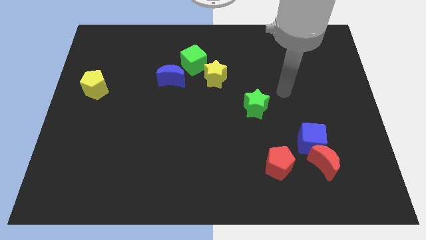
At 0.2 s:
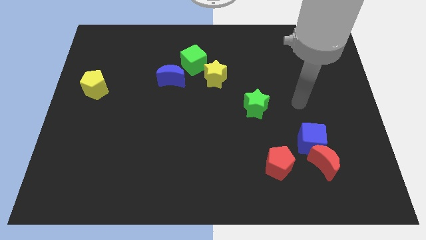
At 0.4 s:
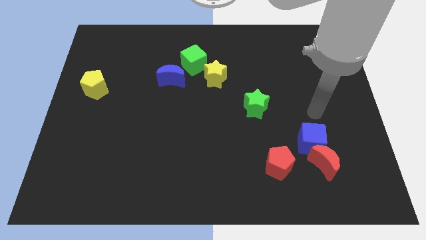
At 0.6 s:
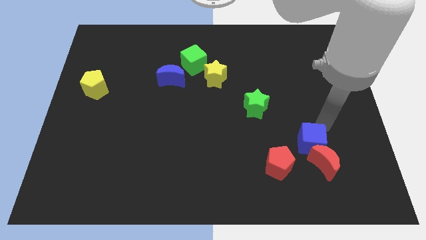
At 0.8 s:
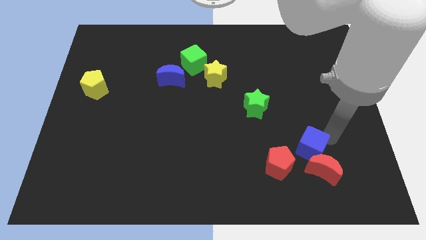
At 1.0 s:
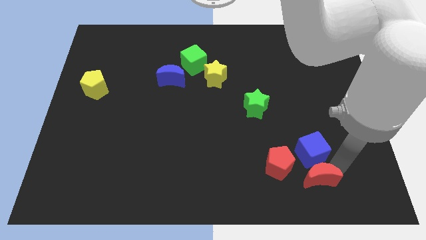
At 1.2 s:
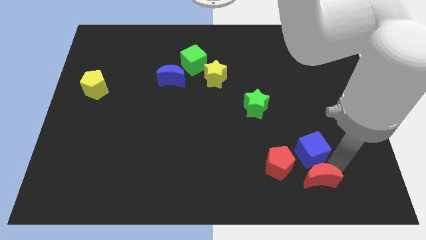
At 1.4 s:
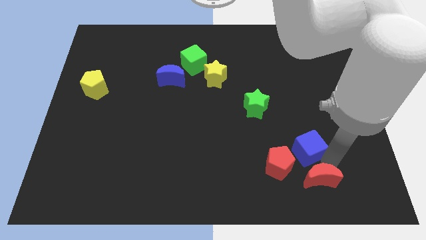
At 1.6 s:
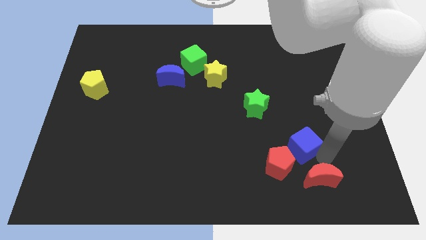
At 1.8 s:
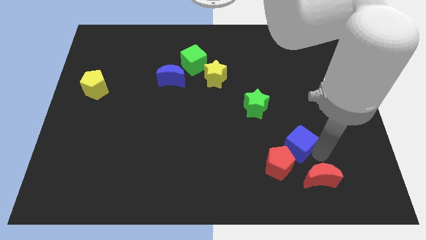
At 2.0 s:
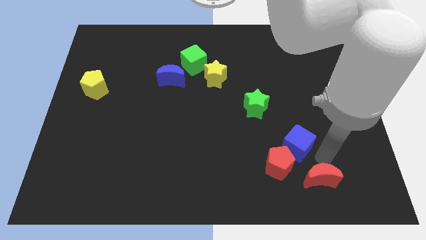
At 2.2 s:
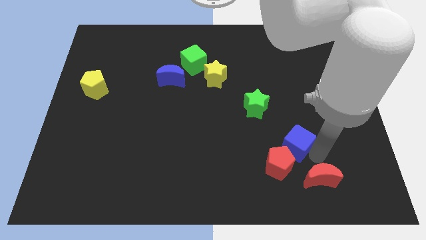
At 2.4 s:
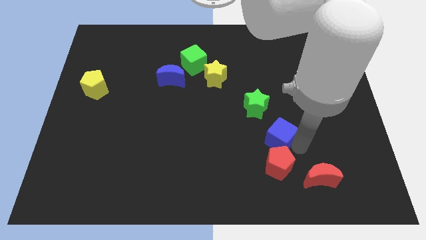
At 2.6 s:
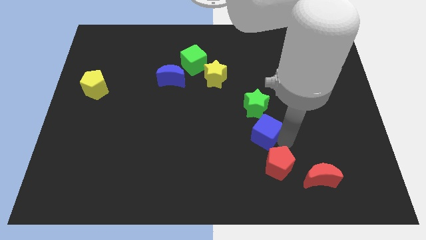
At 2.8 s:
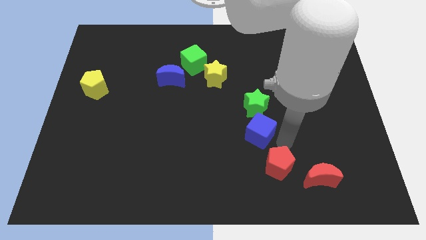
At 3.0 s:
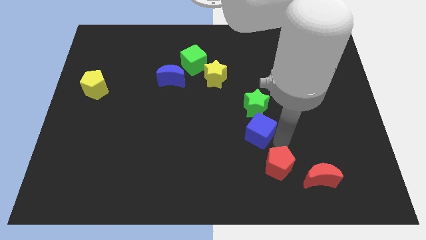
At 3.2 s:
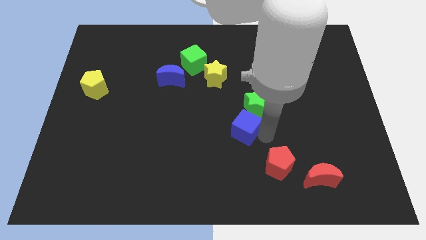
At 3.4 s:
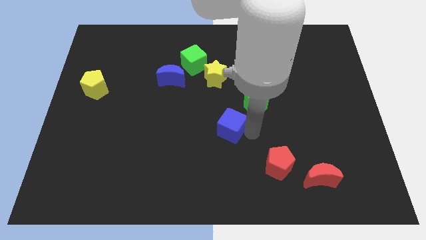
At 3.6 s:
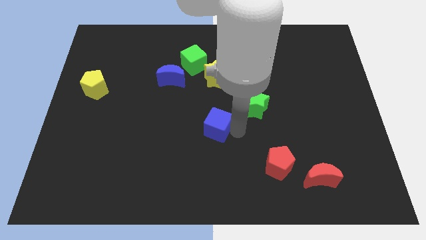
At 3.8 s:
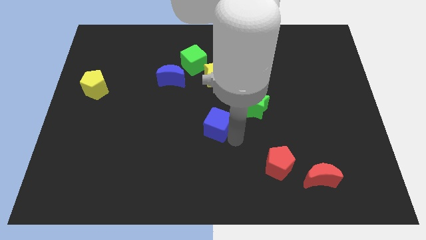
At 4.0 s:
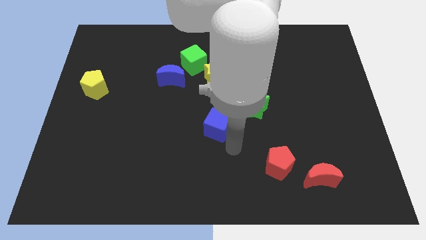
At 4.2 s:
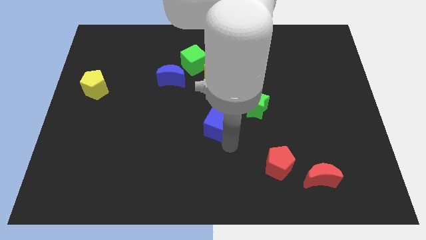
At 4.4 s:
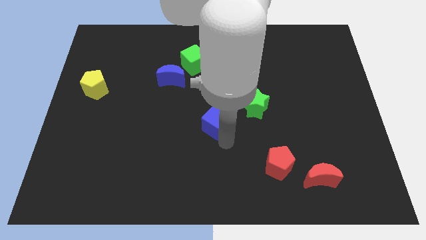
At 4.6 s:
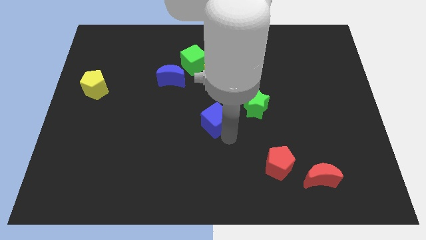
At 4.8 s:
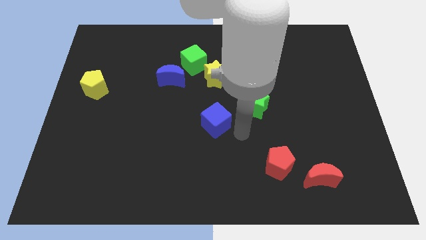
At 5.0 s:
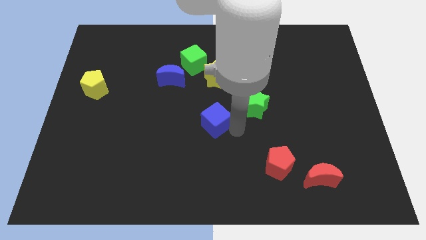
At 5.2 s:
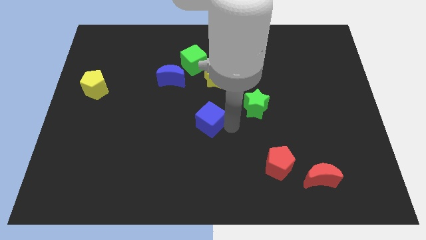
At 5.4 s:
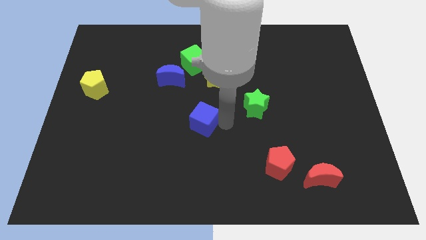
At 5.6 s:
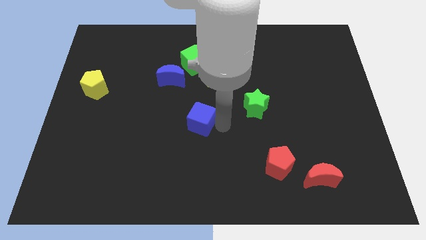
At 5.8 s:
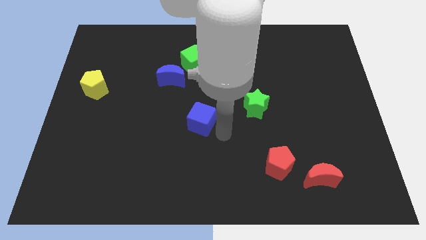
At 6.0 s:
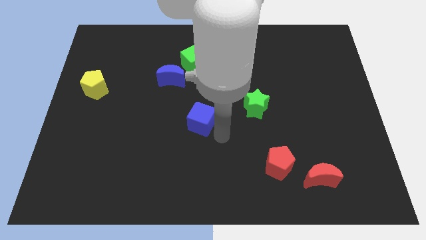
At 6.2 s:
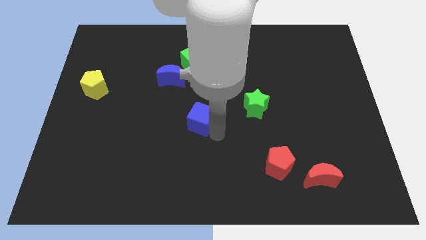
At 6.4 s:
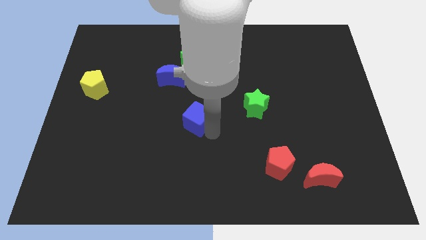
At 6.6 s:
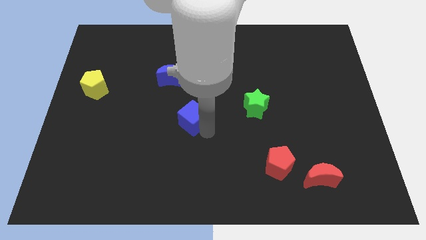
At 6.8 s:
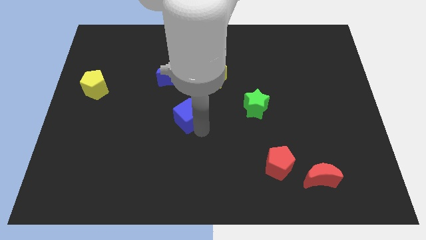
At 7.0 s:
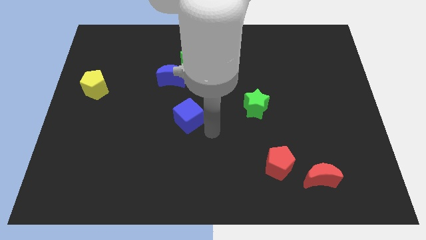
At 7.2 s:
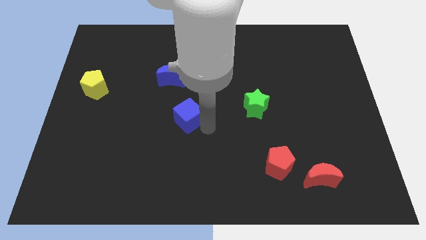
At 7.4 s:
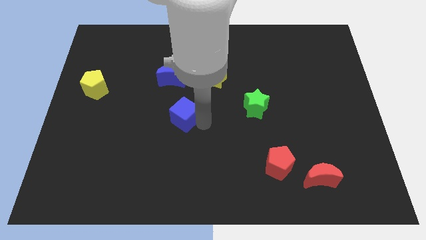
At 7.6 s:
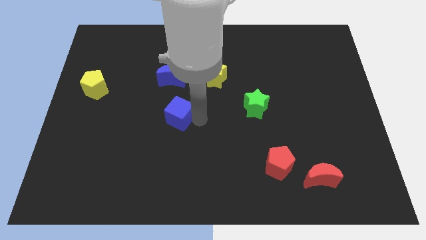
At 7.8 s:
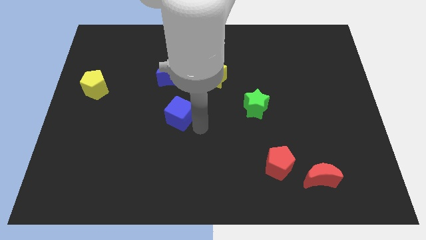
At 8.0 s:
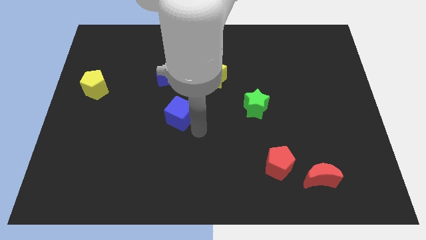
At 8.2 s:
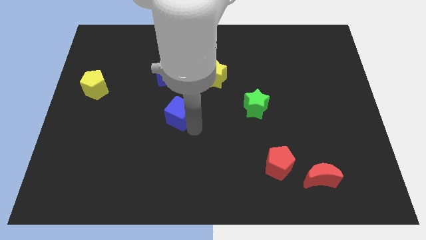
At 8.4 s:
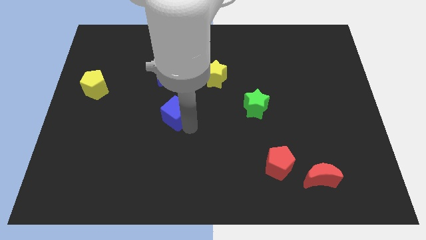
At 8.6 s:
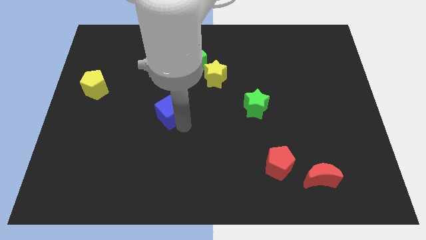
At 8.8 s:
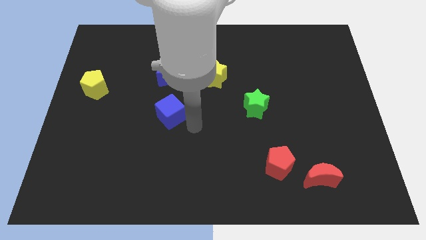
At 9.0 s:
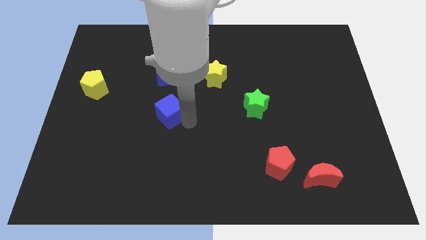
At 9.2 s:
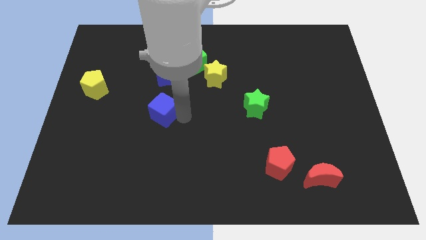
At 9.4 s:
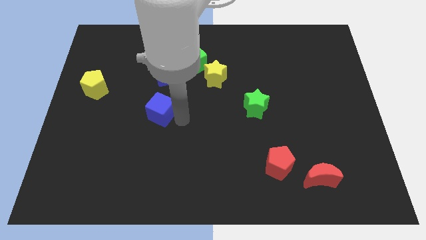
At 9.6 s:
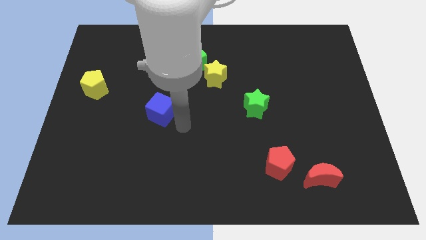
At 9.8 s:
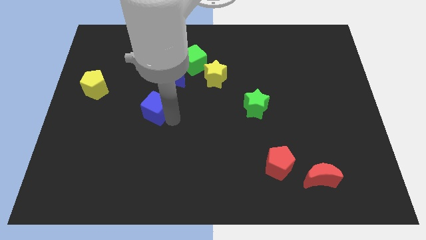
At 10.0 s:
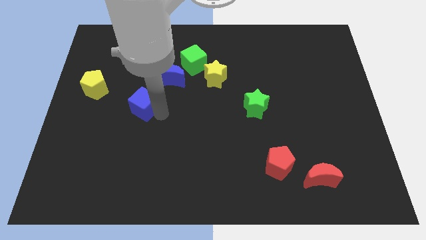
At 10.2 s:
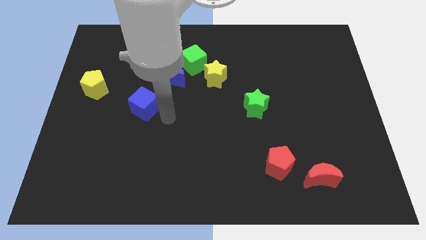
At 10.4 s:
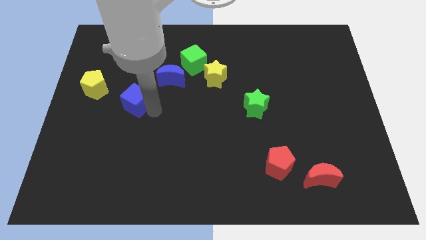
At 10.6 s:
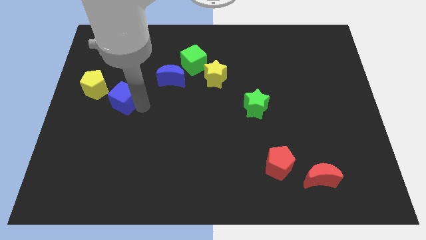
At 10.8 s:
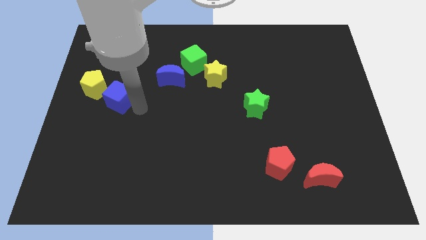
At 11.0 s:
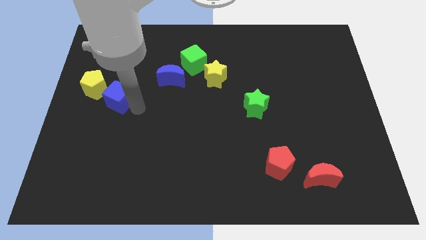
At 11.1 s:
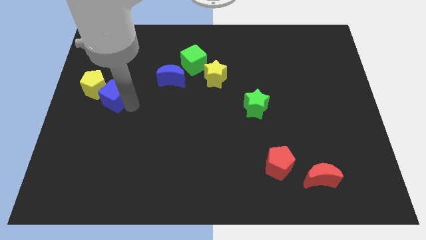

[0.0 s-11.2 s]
move the blue cube towards the yellow pentagon

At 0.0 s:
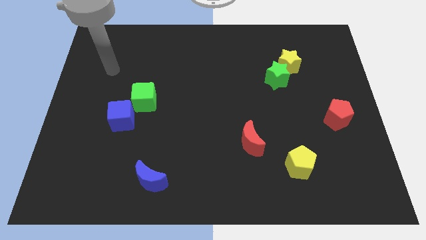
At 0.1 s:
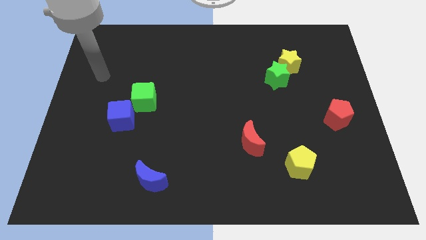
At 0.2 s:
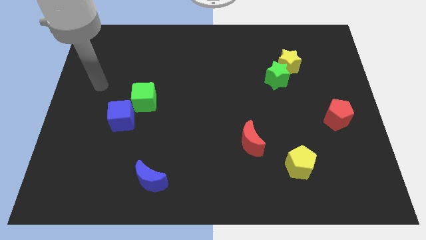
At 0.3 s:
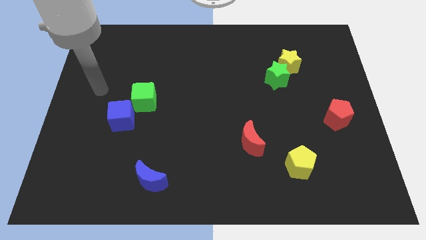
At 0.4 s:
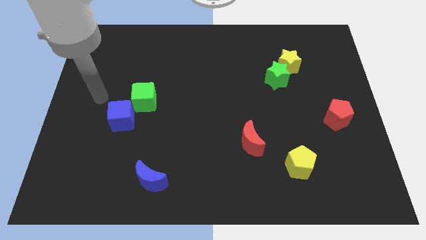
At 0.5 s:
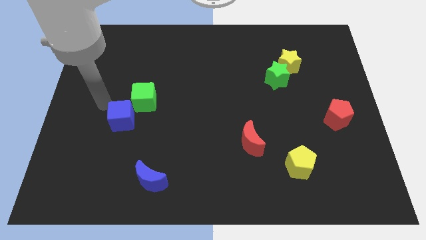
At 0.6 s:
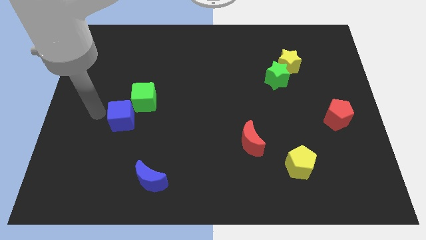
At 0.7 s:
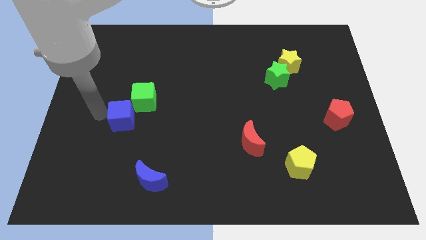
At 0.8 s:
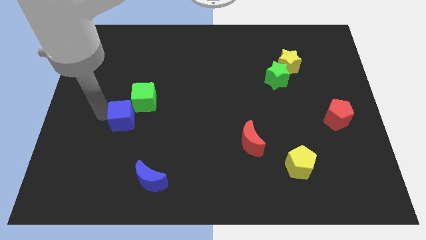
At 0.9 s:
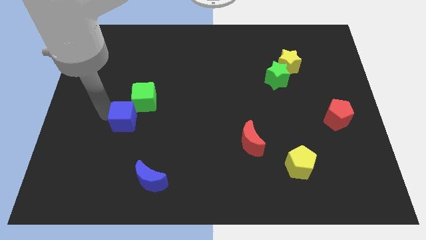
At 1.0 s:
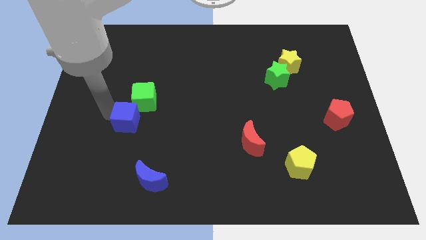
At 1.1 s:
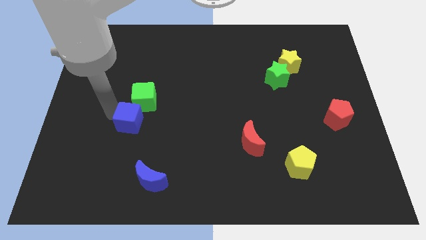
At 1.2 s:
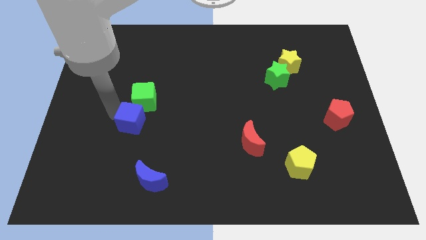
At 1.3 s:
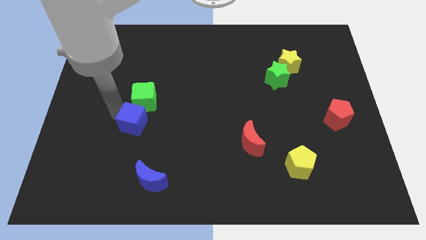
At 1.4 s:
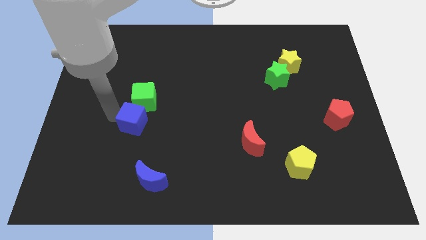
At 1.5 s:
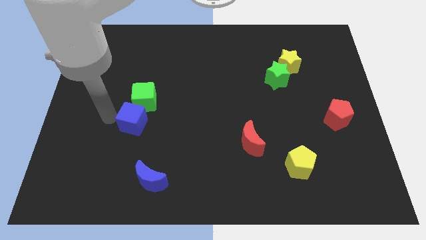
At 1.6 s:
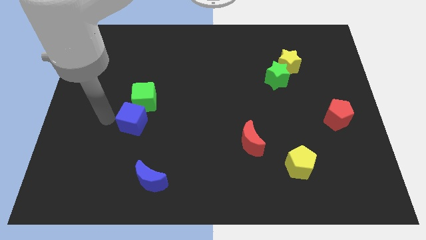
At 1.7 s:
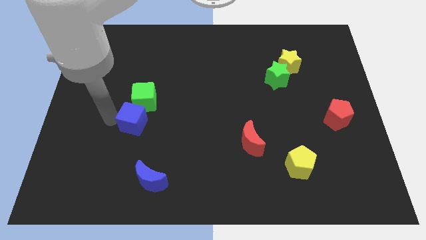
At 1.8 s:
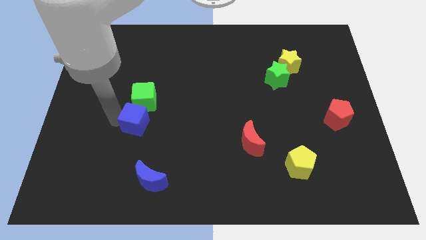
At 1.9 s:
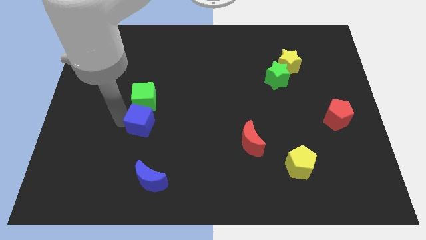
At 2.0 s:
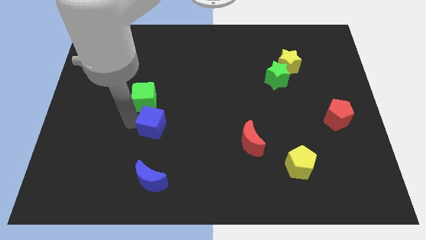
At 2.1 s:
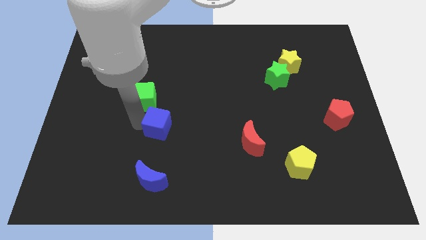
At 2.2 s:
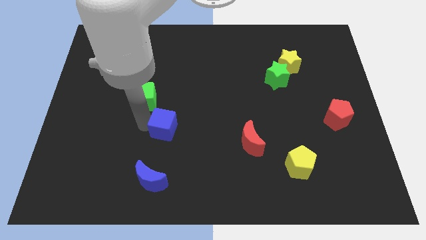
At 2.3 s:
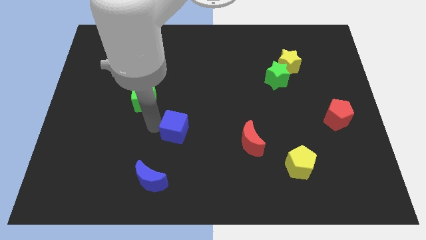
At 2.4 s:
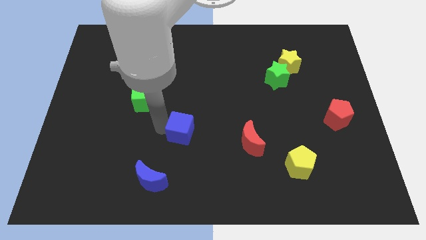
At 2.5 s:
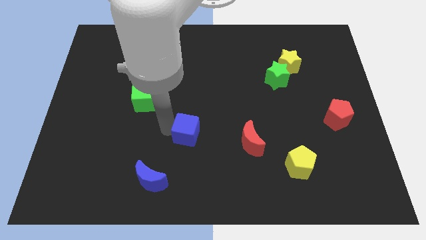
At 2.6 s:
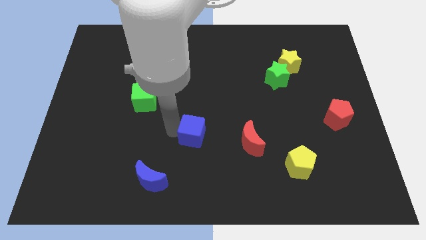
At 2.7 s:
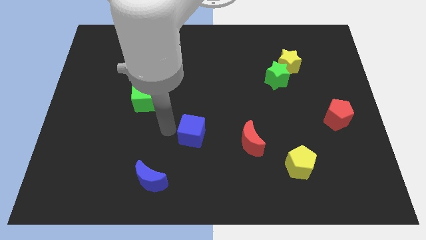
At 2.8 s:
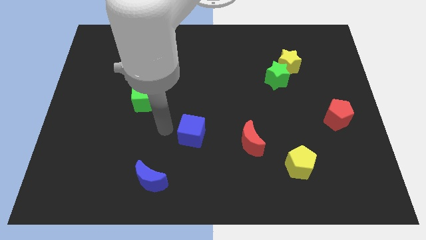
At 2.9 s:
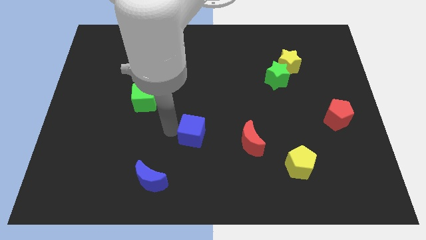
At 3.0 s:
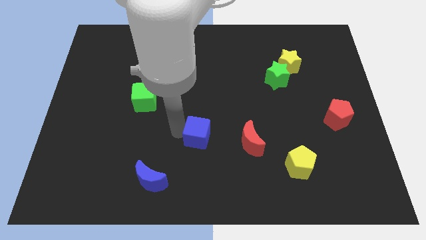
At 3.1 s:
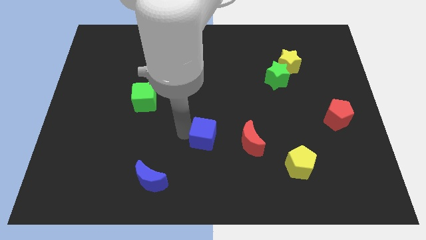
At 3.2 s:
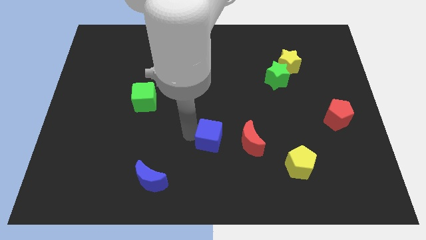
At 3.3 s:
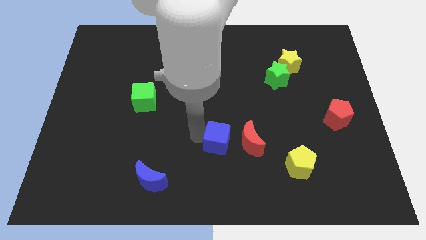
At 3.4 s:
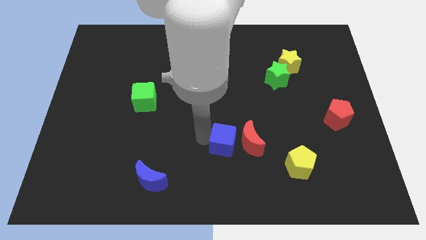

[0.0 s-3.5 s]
push the blue cube to the red moon
